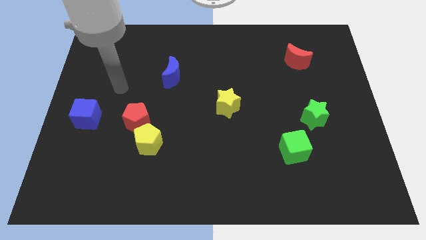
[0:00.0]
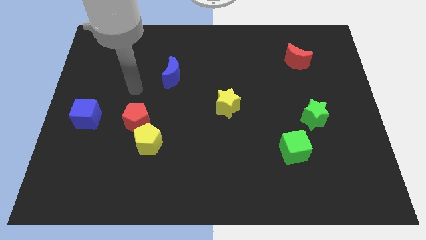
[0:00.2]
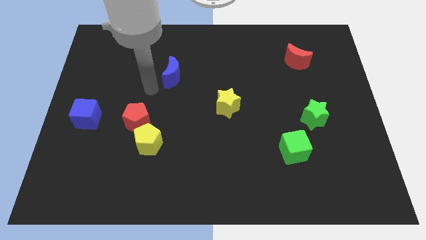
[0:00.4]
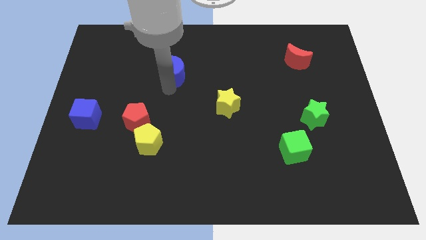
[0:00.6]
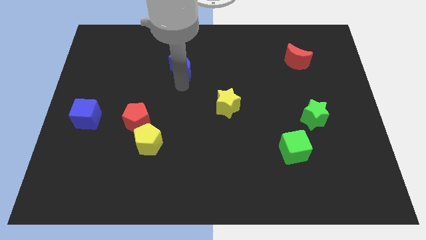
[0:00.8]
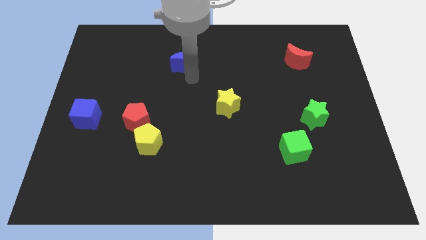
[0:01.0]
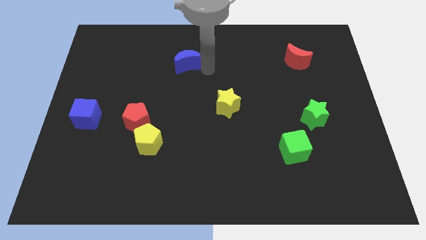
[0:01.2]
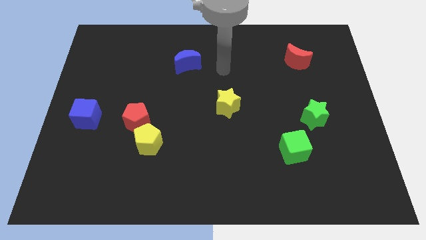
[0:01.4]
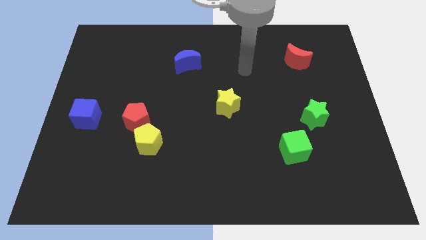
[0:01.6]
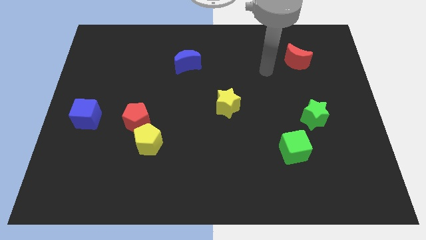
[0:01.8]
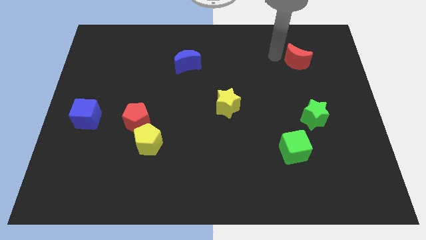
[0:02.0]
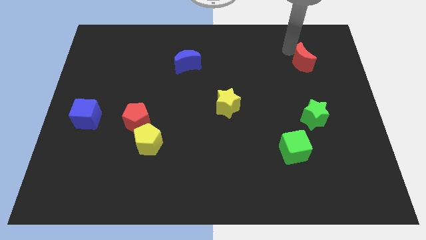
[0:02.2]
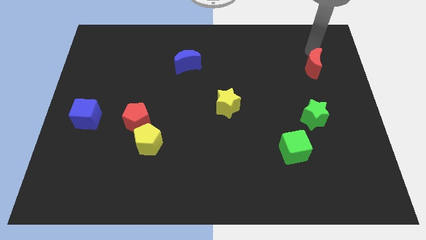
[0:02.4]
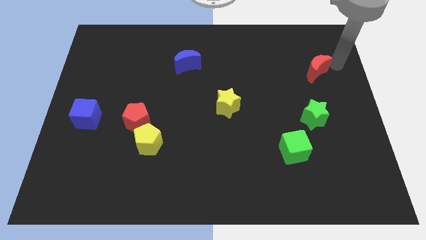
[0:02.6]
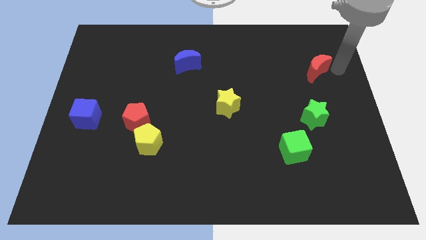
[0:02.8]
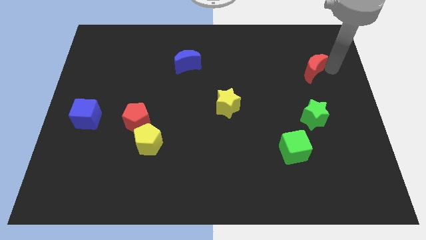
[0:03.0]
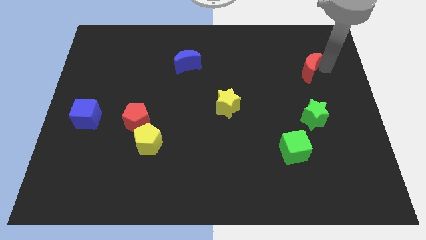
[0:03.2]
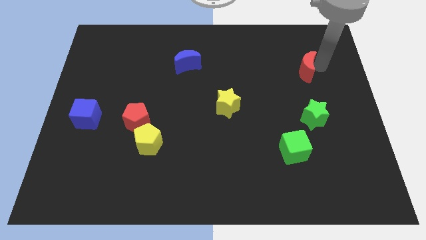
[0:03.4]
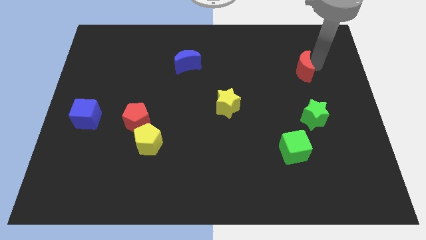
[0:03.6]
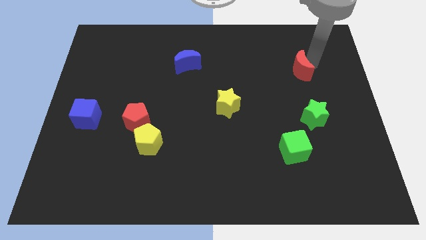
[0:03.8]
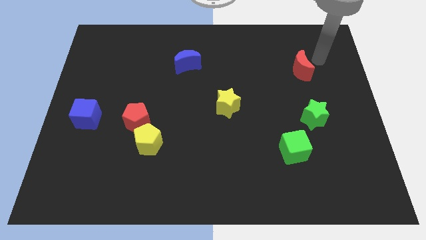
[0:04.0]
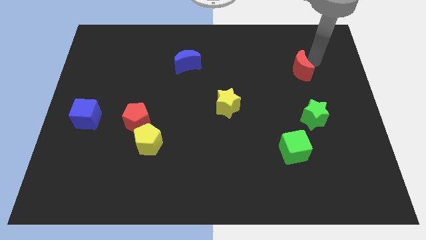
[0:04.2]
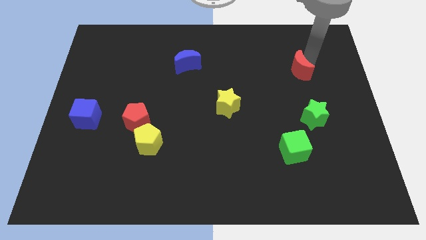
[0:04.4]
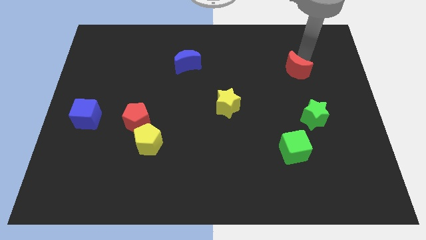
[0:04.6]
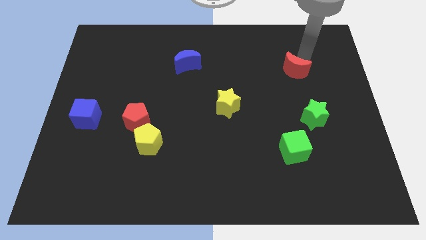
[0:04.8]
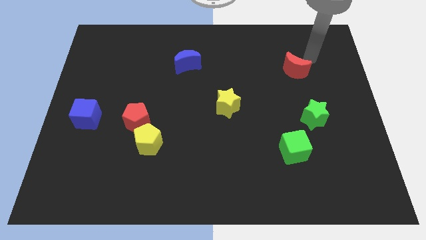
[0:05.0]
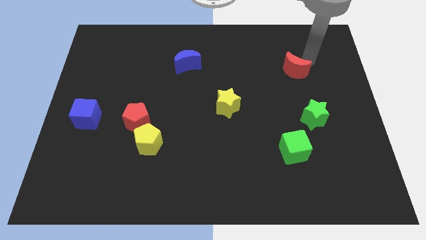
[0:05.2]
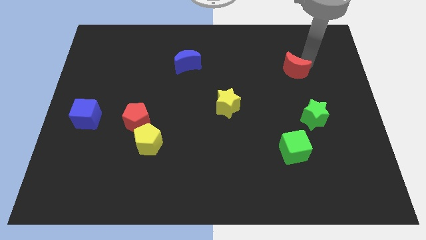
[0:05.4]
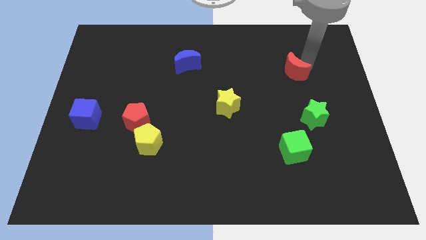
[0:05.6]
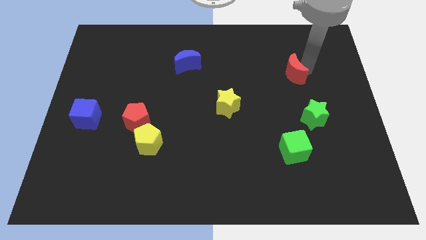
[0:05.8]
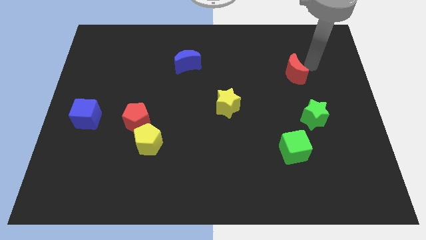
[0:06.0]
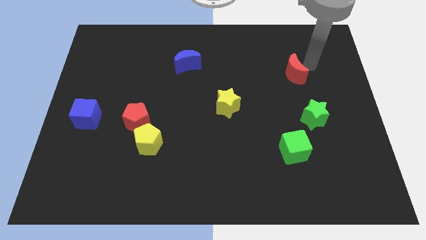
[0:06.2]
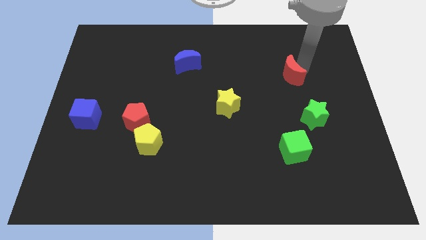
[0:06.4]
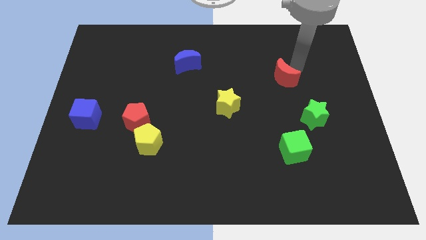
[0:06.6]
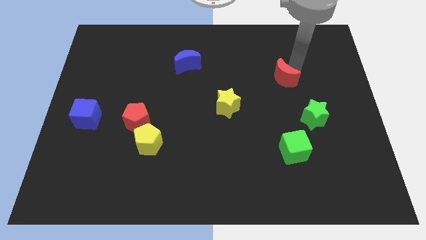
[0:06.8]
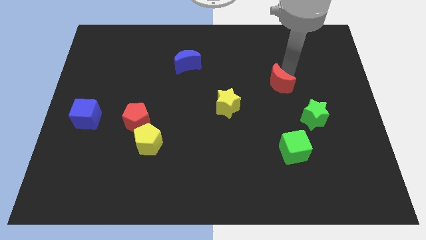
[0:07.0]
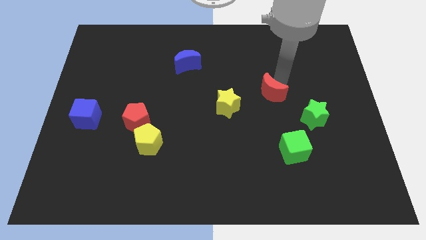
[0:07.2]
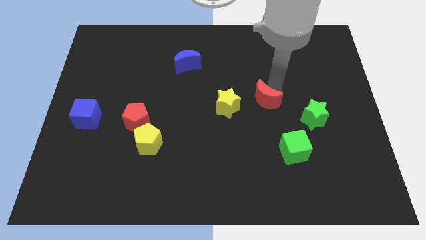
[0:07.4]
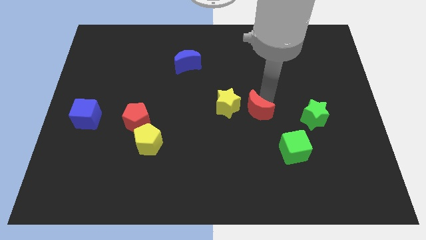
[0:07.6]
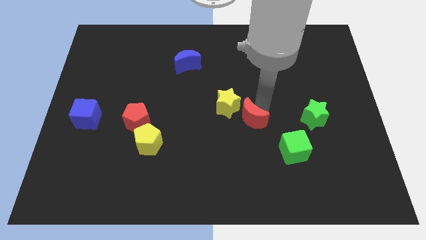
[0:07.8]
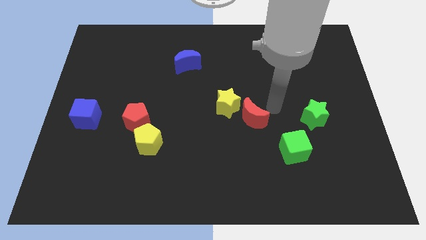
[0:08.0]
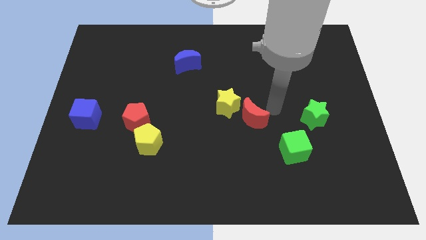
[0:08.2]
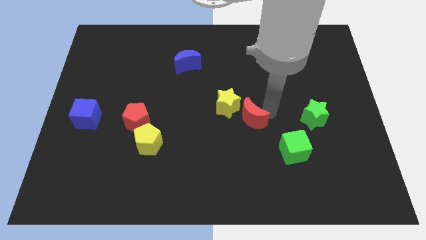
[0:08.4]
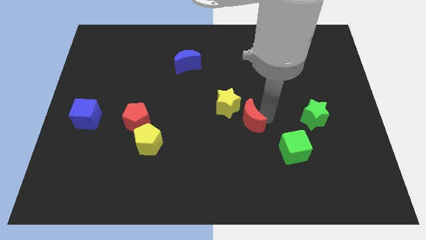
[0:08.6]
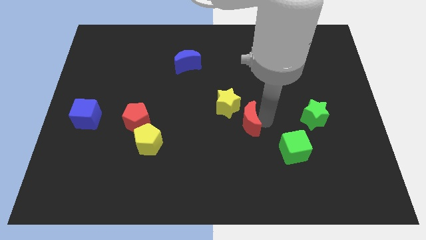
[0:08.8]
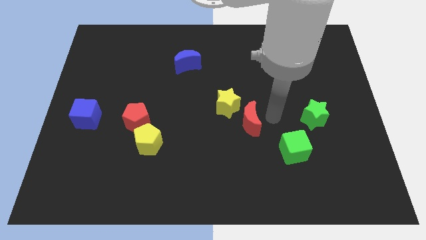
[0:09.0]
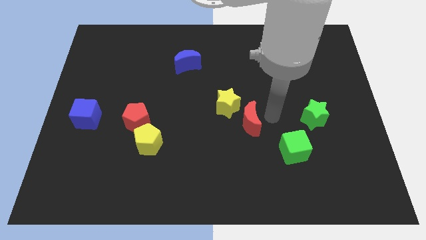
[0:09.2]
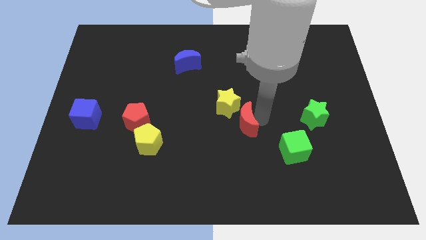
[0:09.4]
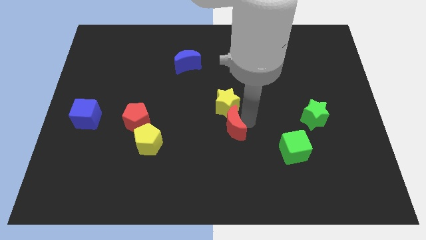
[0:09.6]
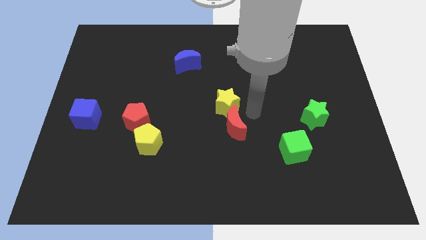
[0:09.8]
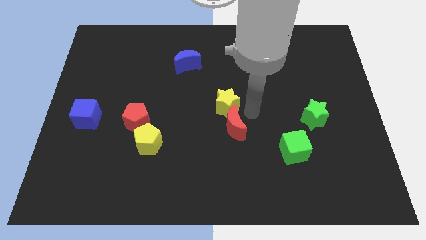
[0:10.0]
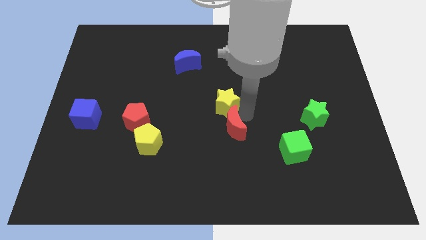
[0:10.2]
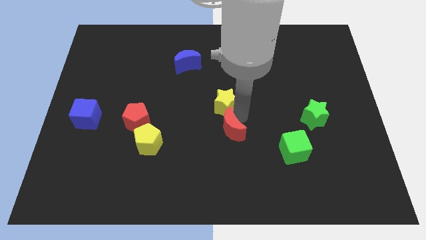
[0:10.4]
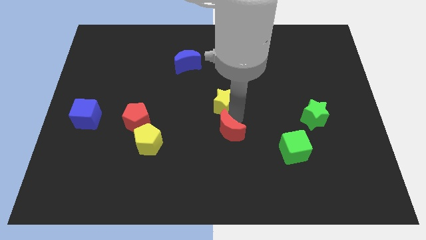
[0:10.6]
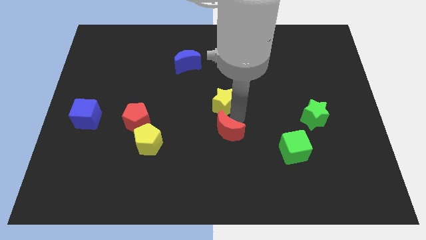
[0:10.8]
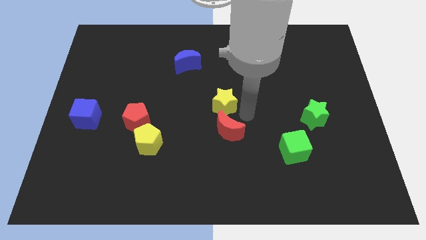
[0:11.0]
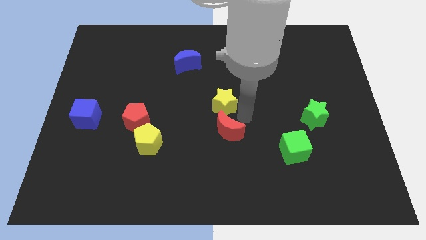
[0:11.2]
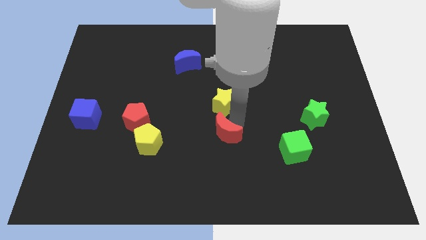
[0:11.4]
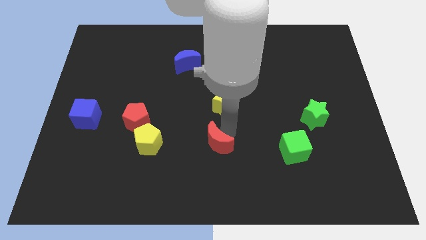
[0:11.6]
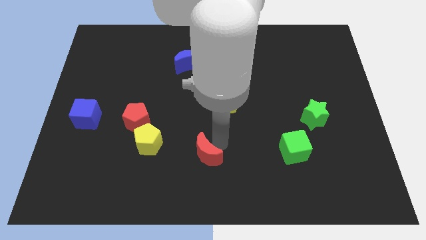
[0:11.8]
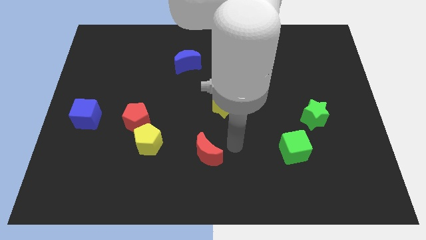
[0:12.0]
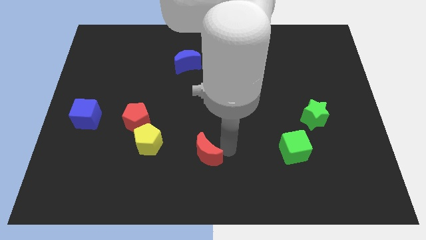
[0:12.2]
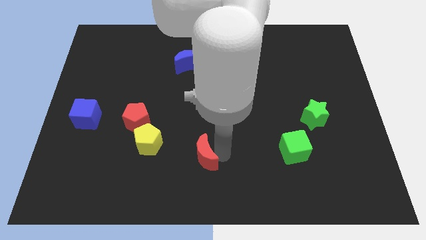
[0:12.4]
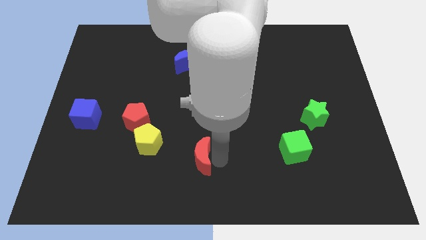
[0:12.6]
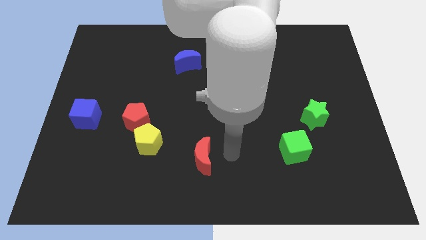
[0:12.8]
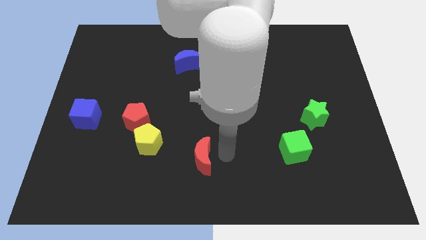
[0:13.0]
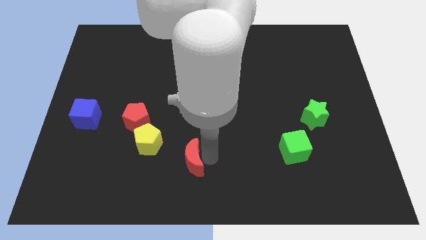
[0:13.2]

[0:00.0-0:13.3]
slide the red moon to the bottom right side of the yellow pentagon

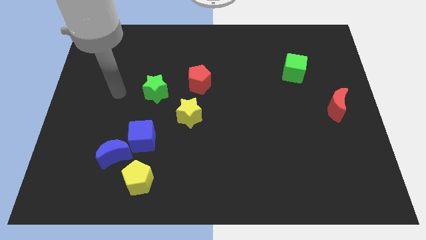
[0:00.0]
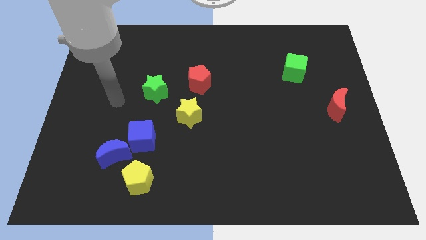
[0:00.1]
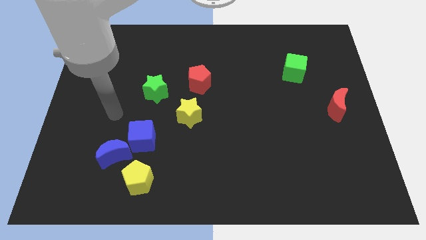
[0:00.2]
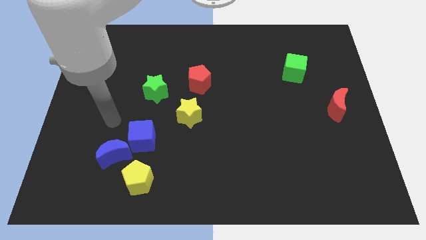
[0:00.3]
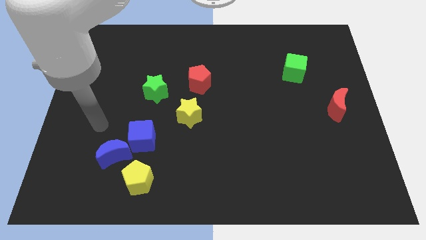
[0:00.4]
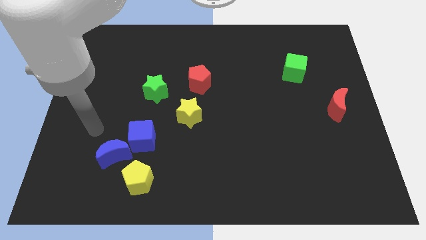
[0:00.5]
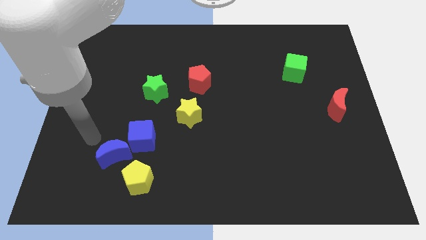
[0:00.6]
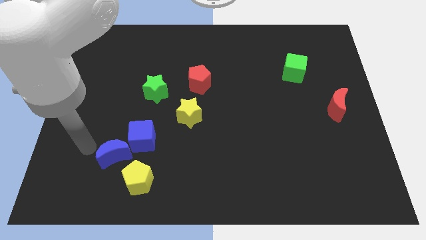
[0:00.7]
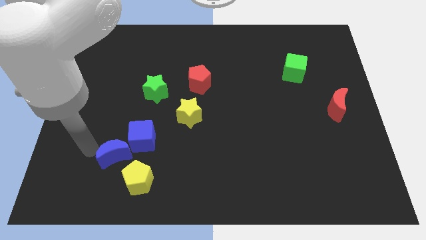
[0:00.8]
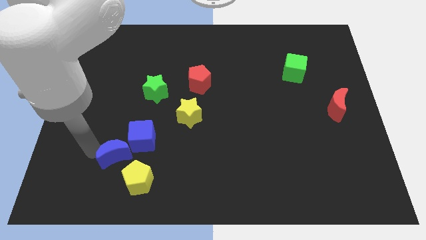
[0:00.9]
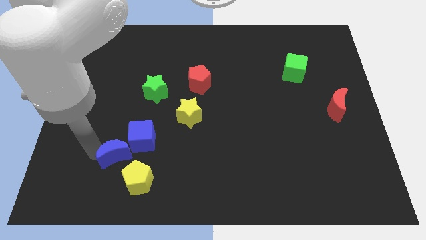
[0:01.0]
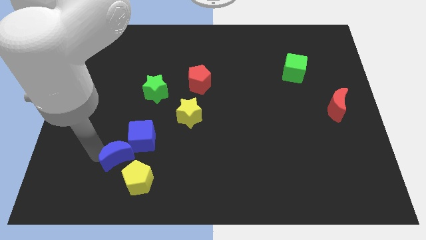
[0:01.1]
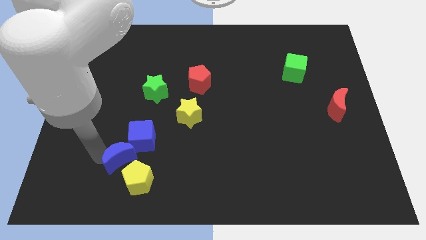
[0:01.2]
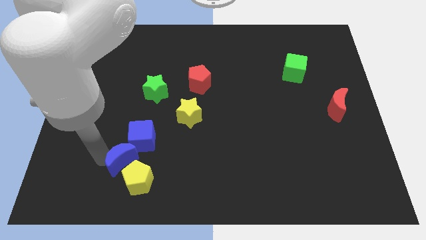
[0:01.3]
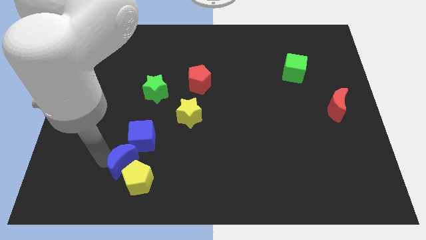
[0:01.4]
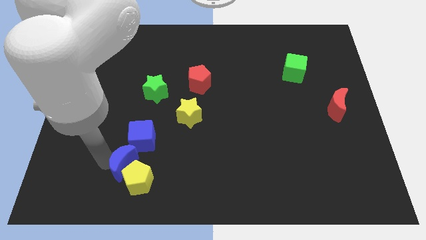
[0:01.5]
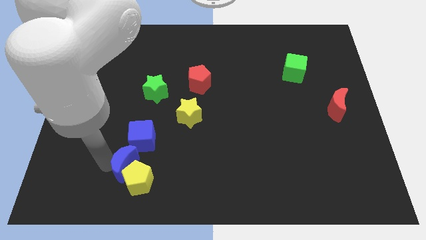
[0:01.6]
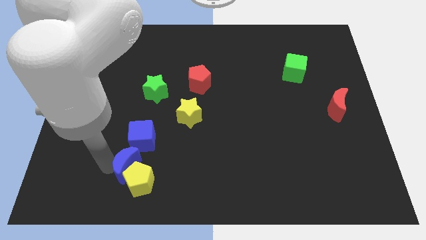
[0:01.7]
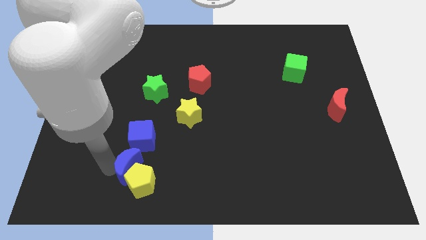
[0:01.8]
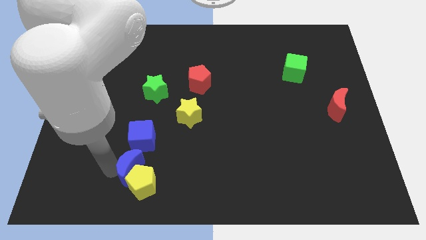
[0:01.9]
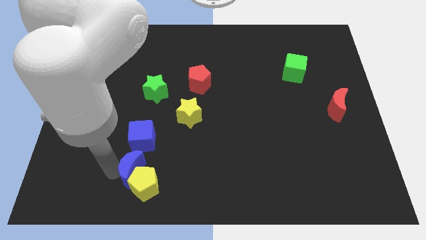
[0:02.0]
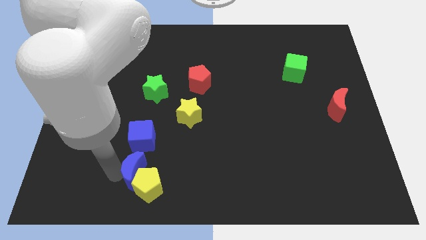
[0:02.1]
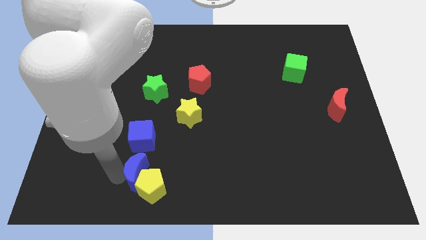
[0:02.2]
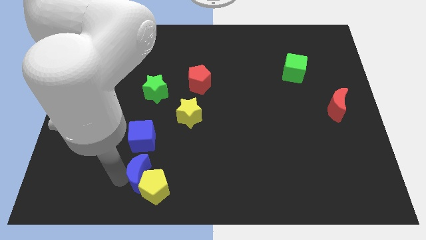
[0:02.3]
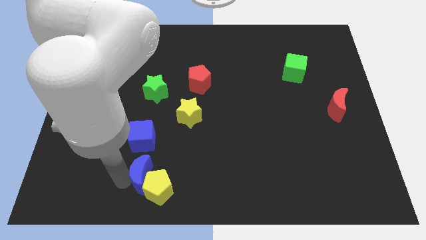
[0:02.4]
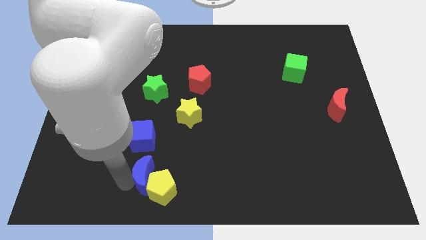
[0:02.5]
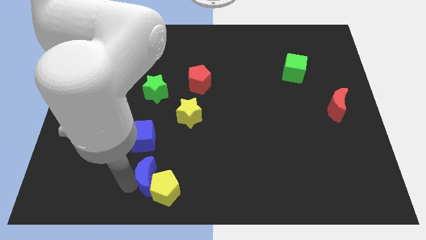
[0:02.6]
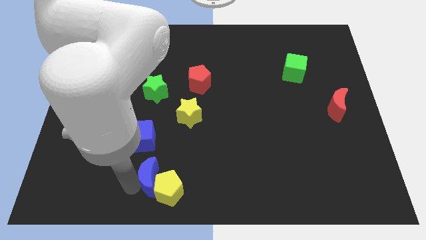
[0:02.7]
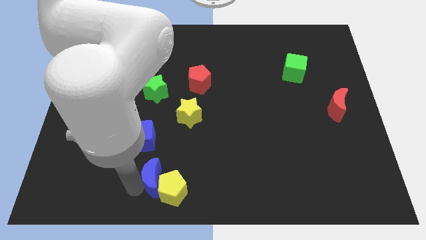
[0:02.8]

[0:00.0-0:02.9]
push the blue moon diagonally down and to the right of the blue cube
